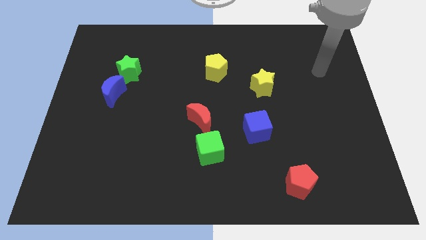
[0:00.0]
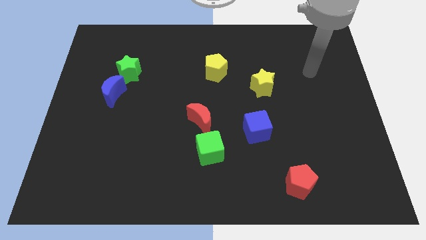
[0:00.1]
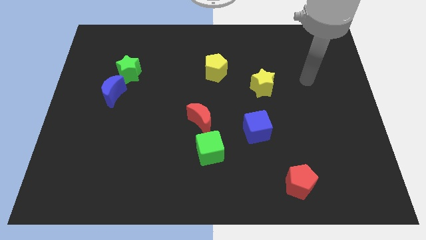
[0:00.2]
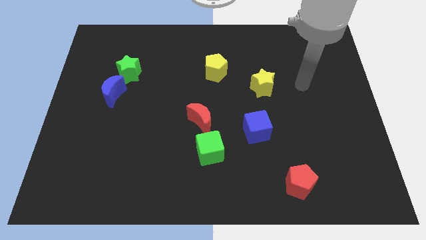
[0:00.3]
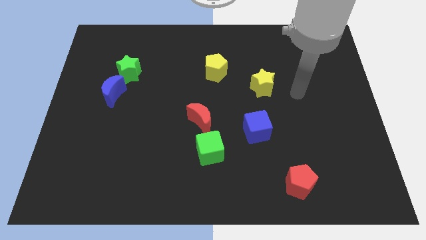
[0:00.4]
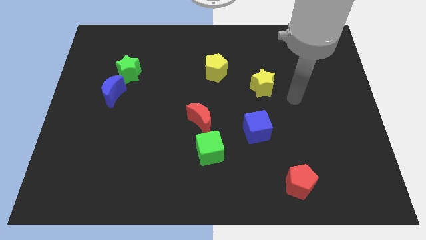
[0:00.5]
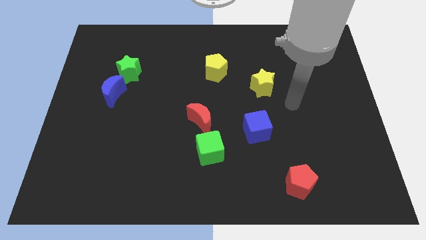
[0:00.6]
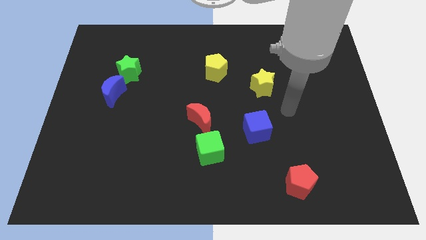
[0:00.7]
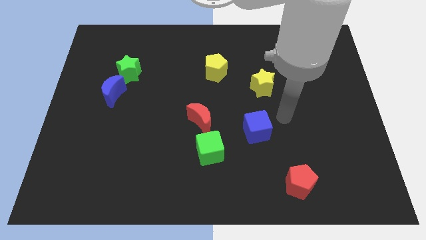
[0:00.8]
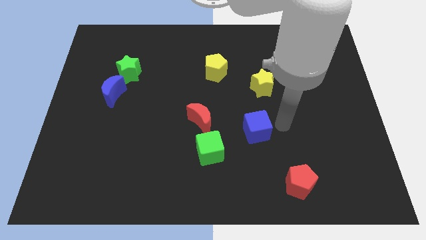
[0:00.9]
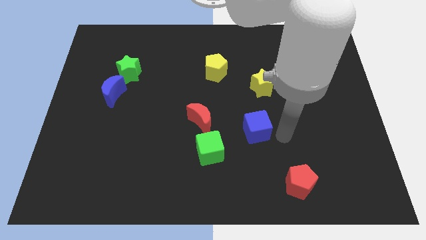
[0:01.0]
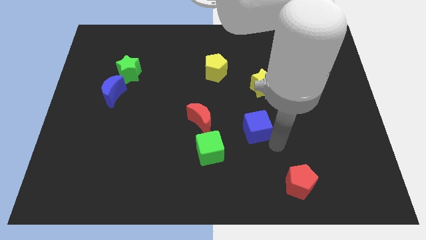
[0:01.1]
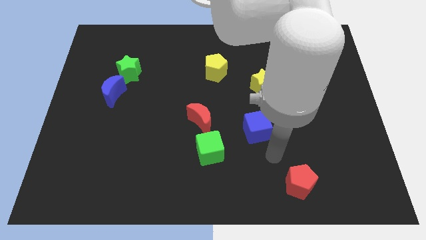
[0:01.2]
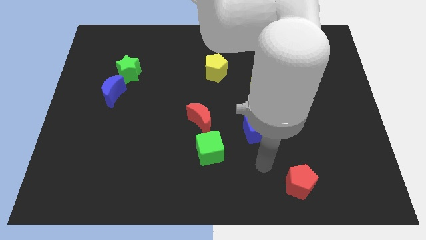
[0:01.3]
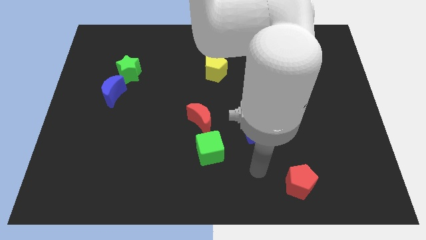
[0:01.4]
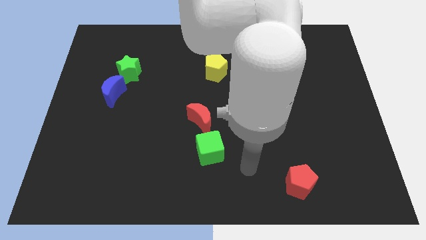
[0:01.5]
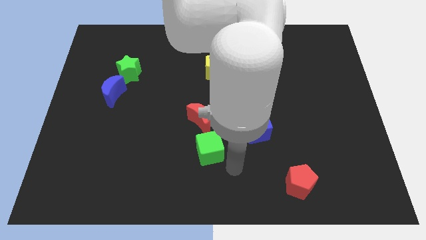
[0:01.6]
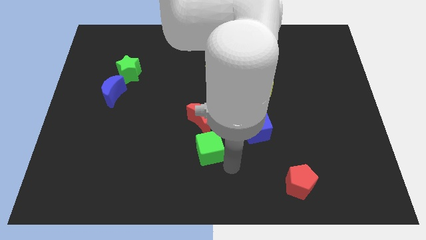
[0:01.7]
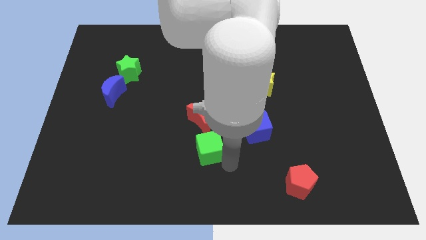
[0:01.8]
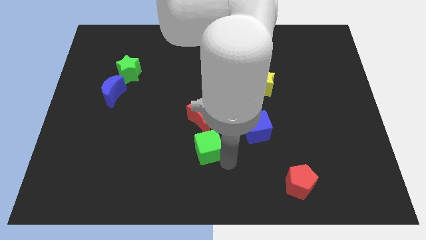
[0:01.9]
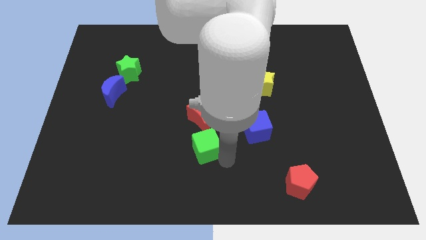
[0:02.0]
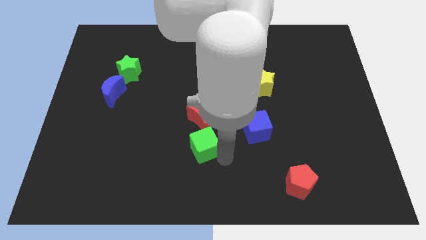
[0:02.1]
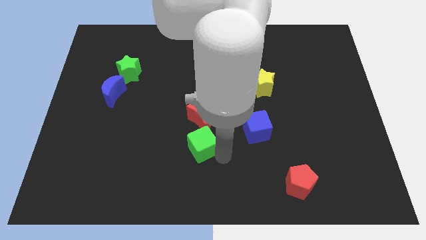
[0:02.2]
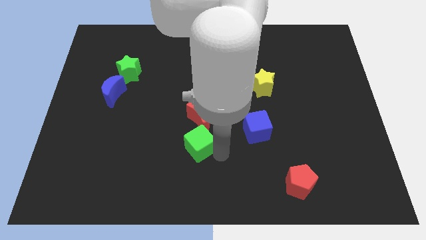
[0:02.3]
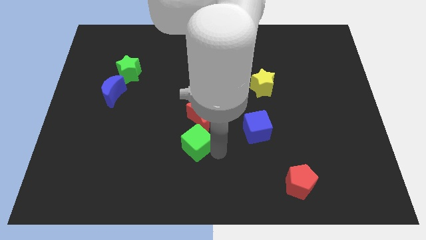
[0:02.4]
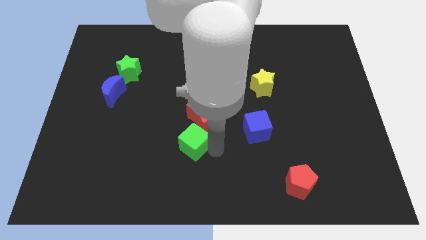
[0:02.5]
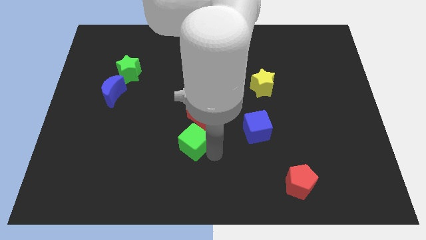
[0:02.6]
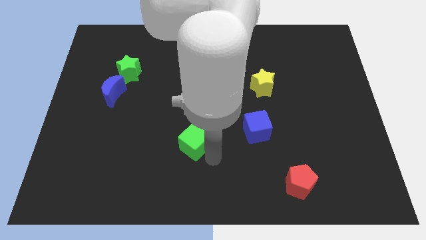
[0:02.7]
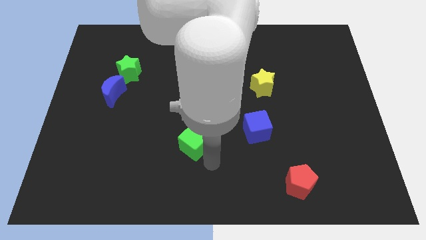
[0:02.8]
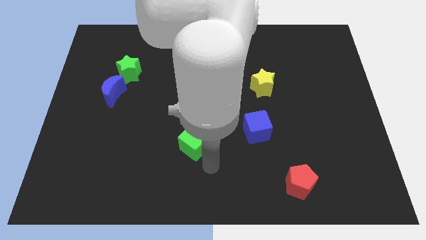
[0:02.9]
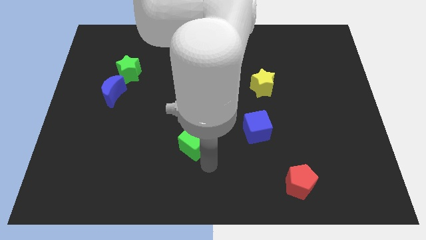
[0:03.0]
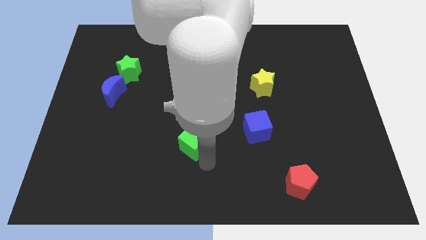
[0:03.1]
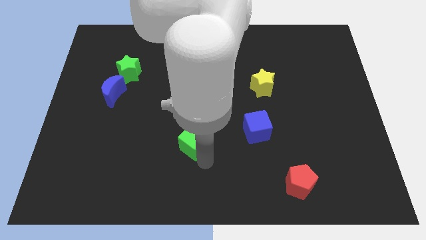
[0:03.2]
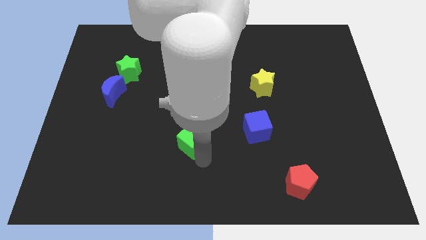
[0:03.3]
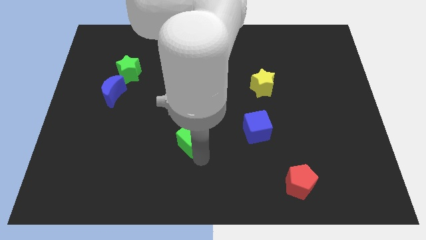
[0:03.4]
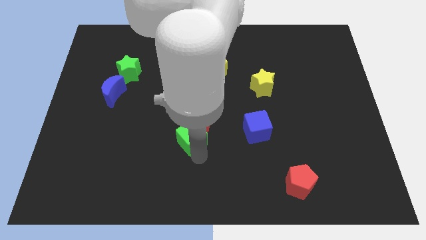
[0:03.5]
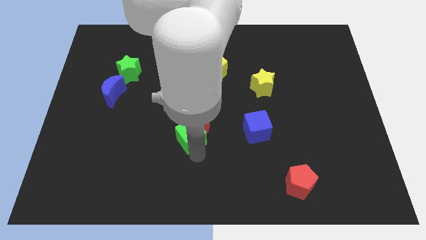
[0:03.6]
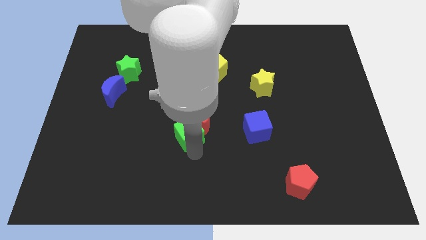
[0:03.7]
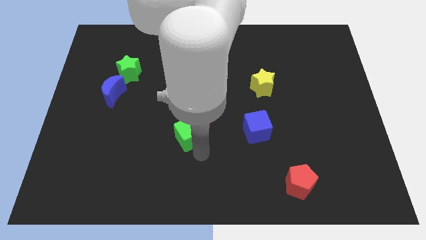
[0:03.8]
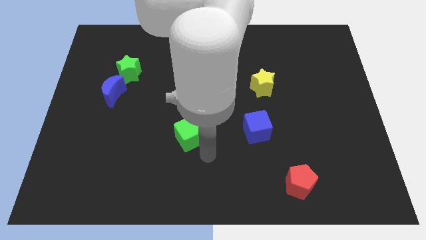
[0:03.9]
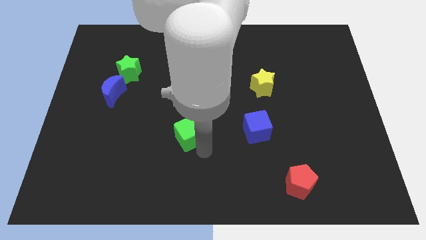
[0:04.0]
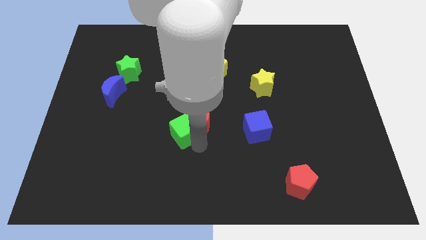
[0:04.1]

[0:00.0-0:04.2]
slightly slide the green cube up and to the left diagonally

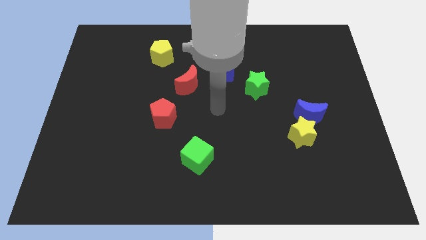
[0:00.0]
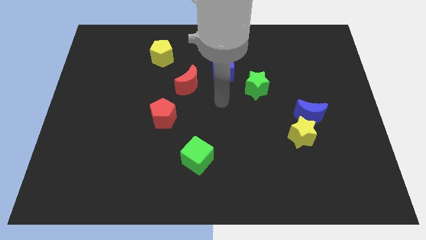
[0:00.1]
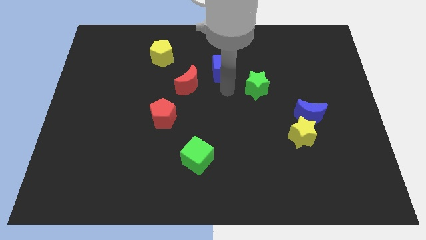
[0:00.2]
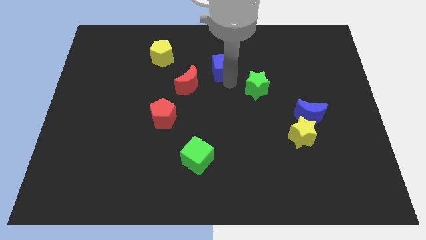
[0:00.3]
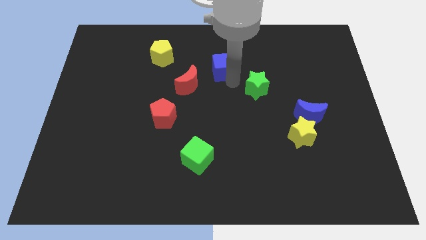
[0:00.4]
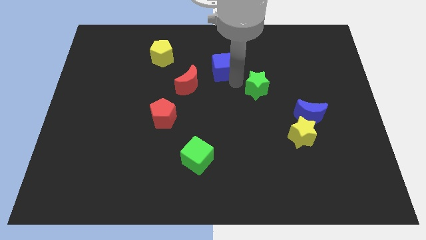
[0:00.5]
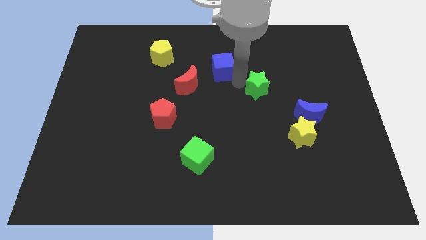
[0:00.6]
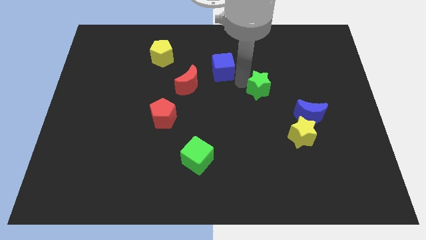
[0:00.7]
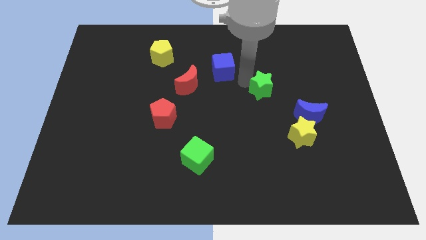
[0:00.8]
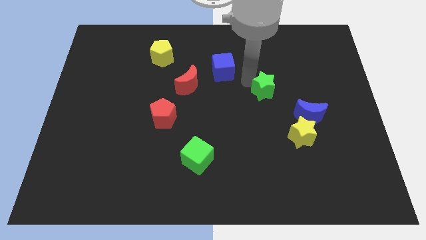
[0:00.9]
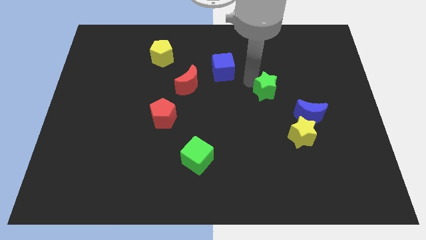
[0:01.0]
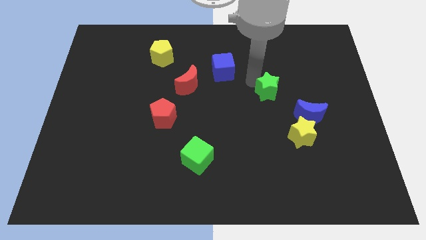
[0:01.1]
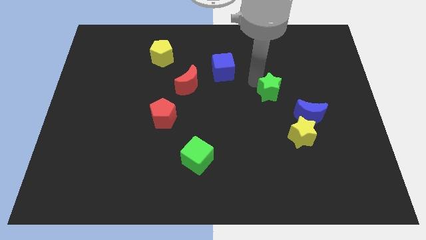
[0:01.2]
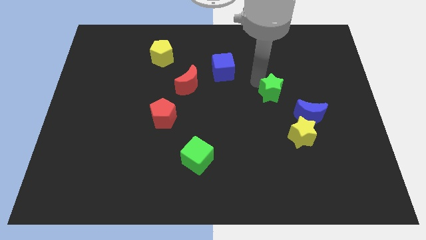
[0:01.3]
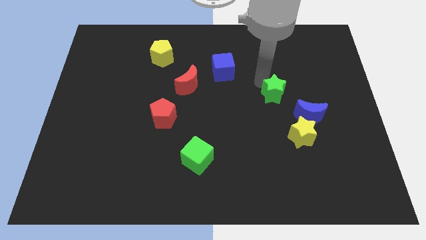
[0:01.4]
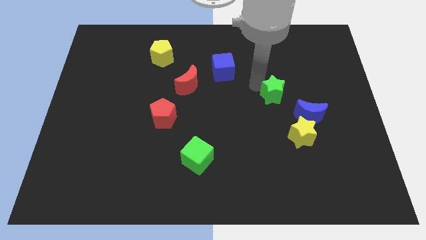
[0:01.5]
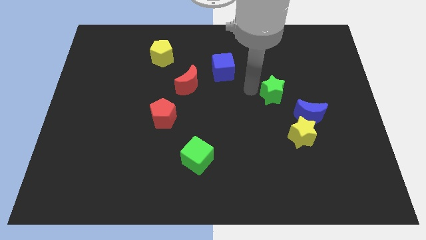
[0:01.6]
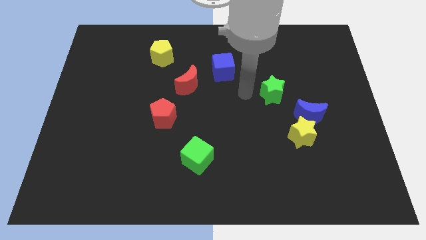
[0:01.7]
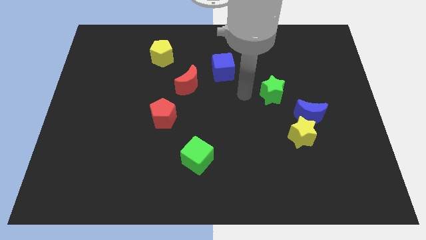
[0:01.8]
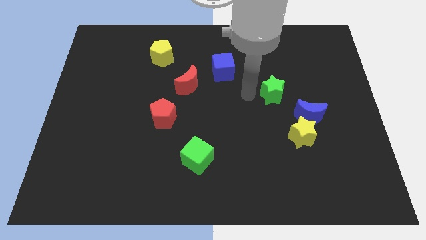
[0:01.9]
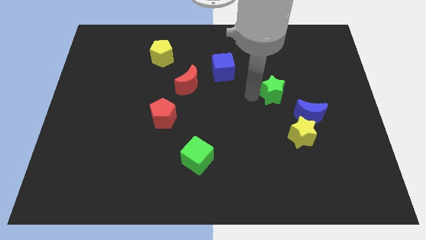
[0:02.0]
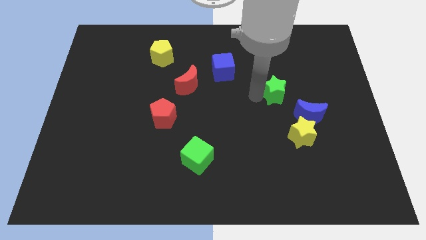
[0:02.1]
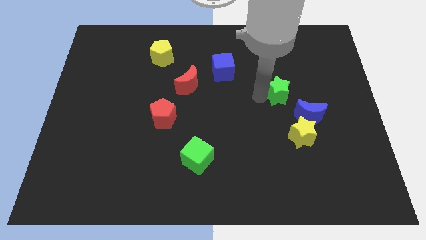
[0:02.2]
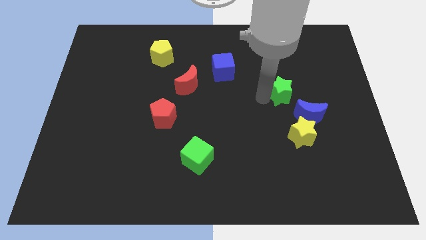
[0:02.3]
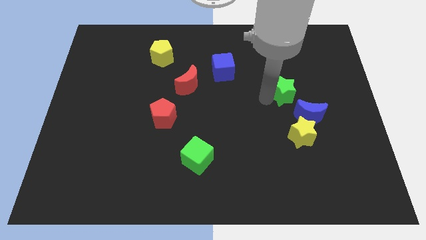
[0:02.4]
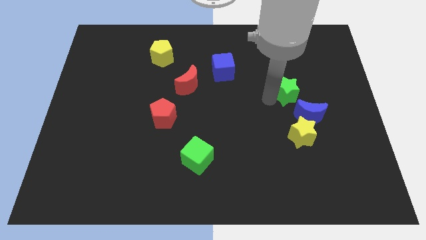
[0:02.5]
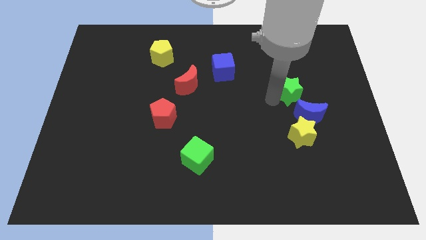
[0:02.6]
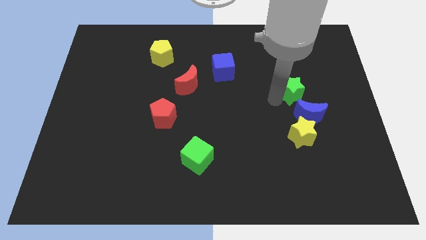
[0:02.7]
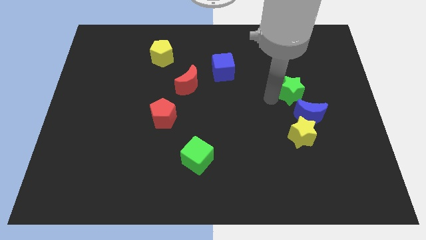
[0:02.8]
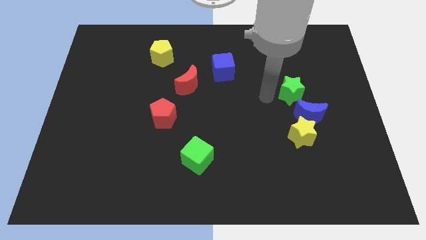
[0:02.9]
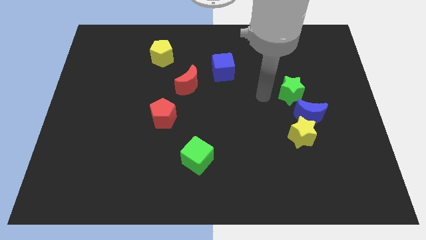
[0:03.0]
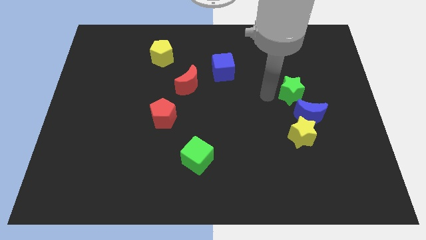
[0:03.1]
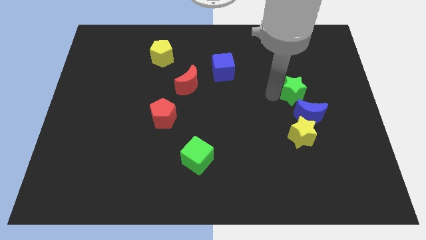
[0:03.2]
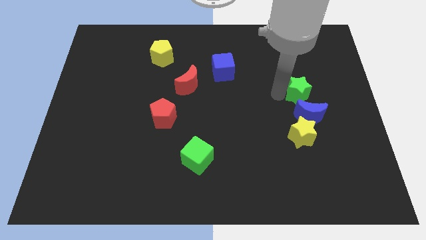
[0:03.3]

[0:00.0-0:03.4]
slightly push the green star down and then to the right

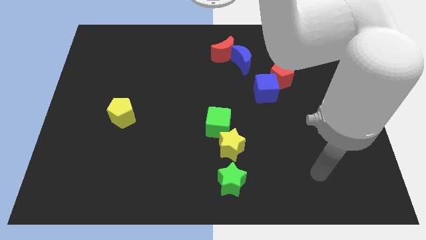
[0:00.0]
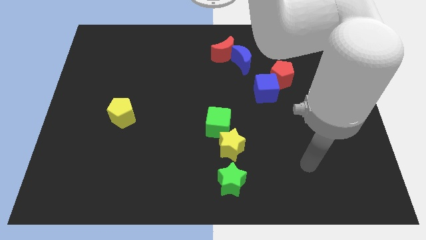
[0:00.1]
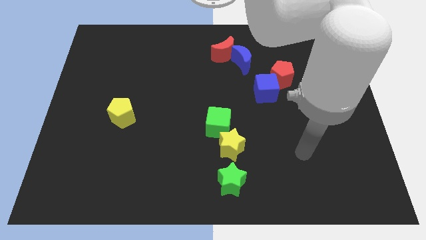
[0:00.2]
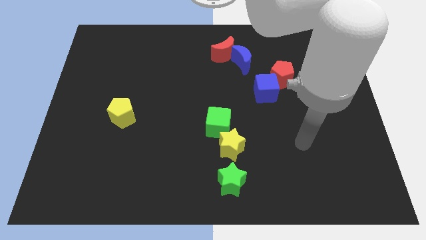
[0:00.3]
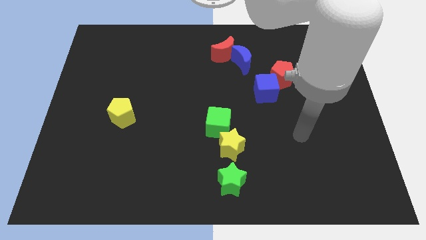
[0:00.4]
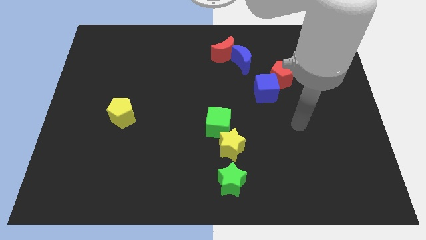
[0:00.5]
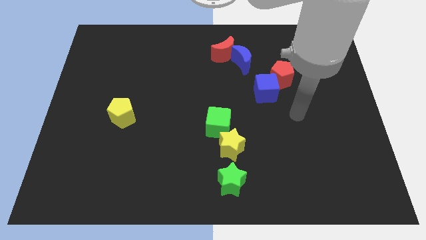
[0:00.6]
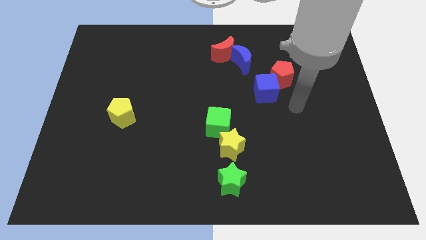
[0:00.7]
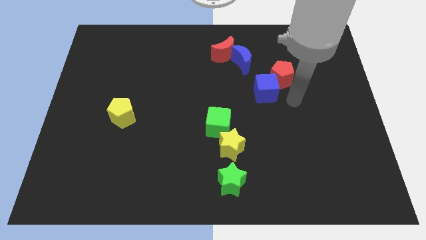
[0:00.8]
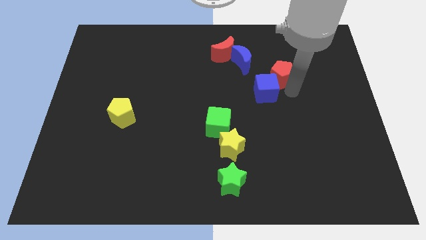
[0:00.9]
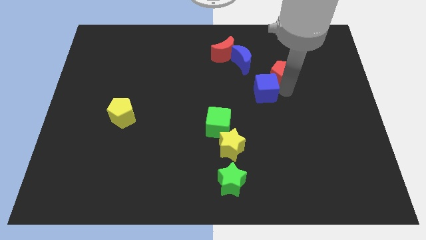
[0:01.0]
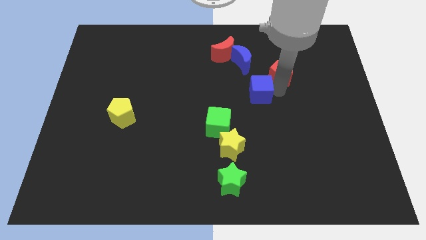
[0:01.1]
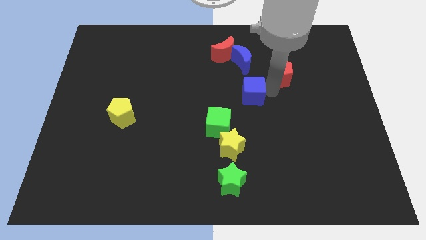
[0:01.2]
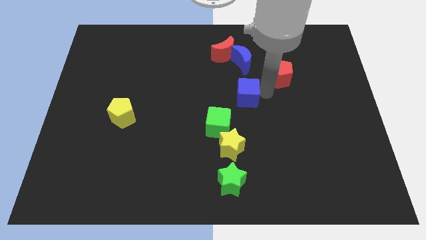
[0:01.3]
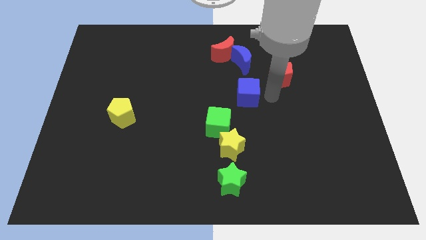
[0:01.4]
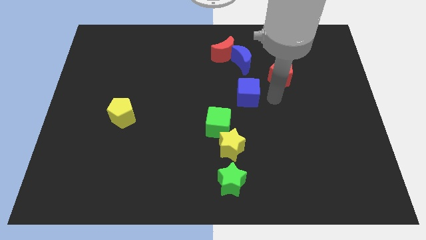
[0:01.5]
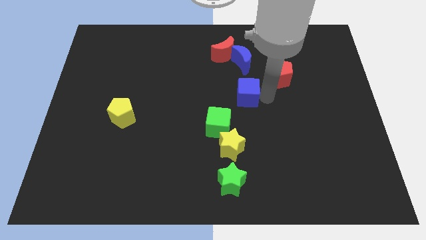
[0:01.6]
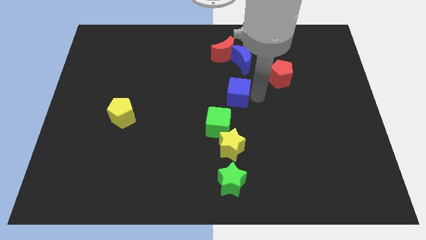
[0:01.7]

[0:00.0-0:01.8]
push the blue cube somewhat to the left
